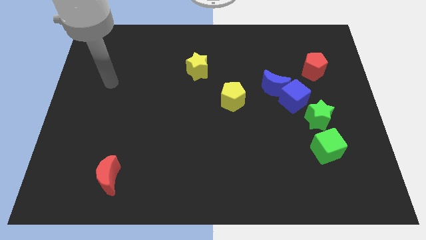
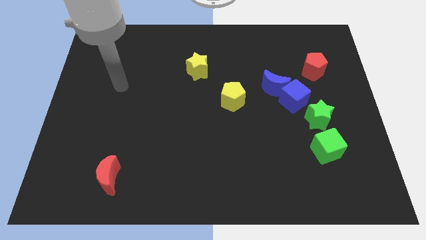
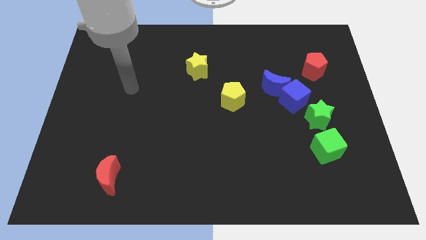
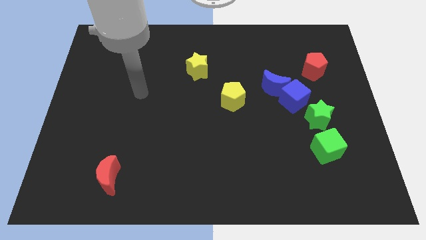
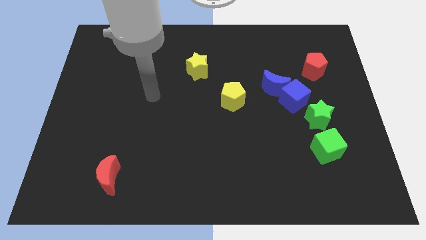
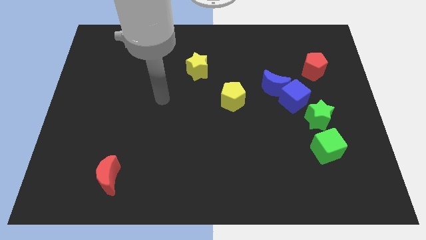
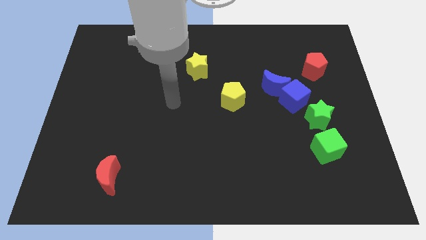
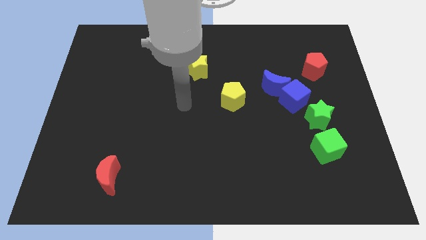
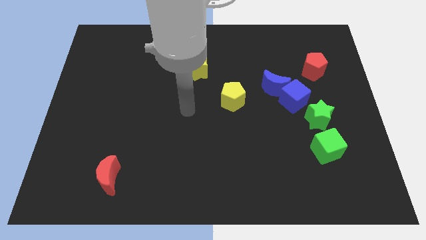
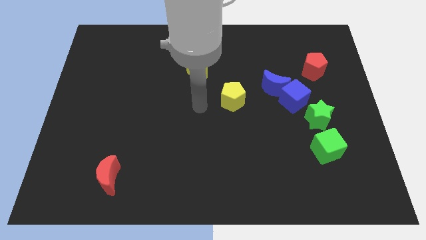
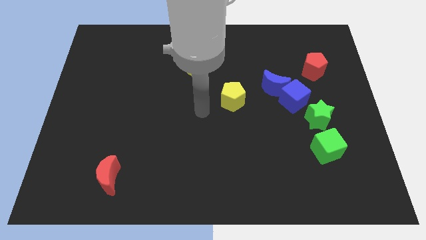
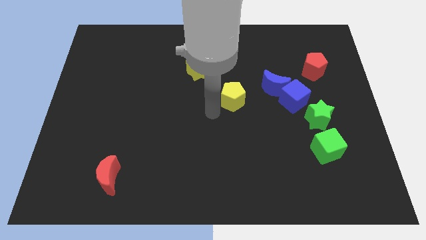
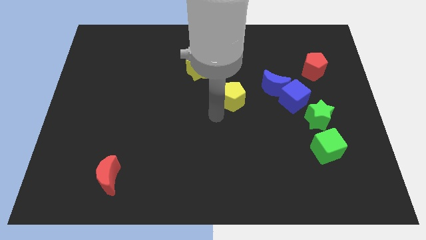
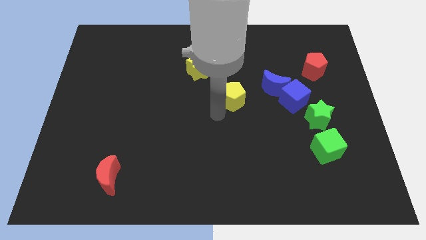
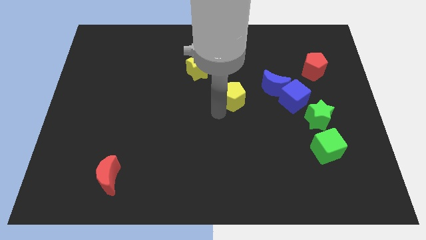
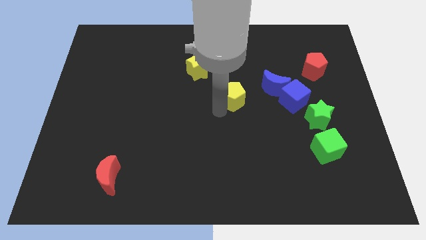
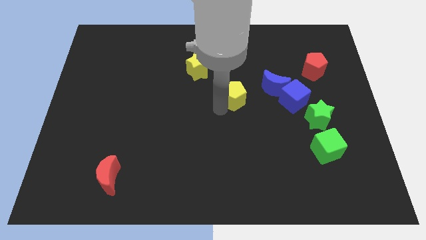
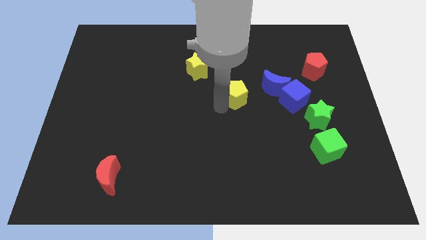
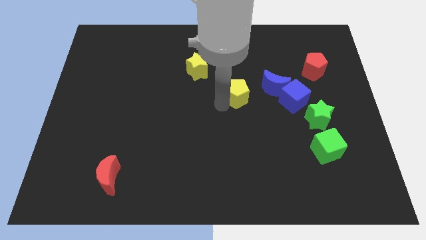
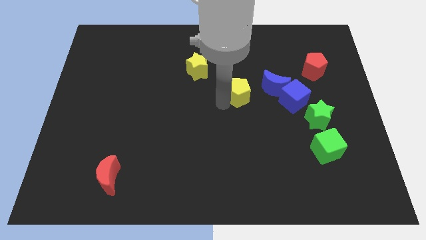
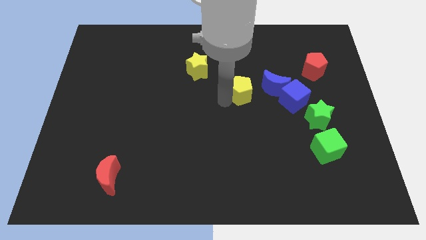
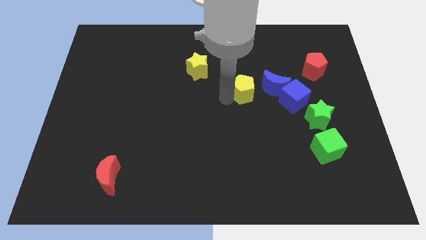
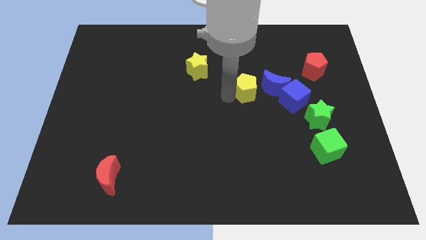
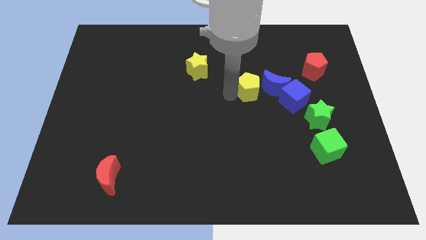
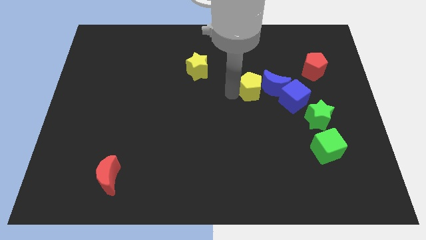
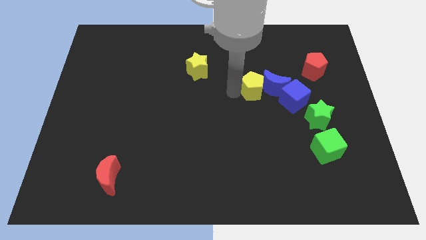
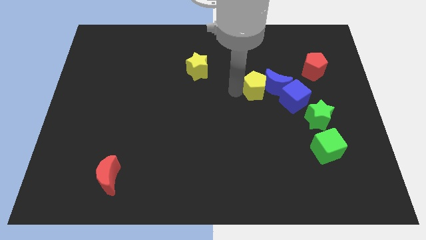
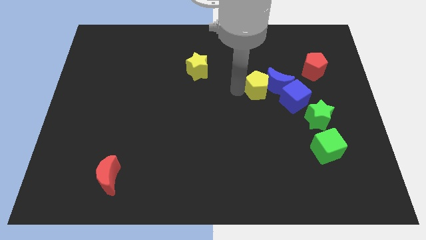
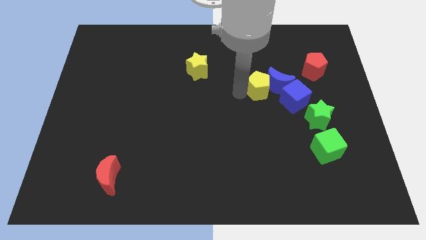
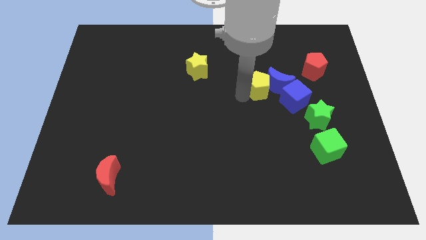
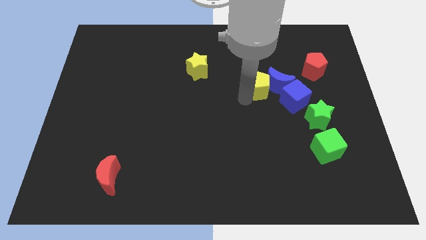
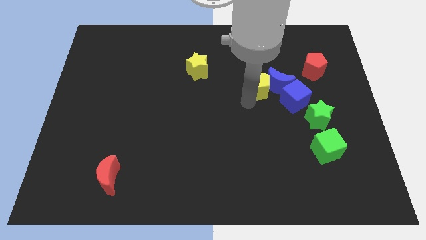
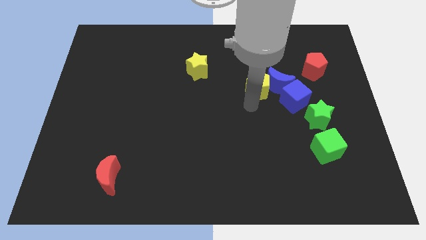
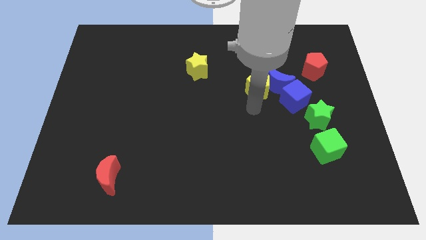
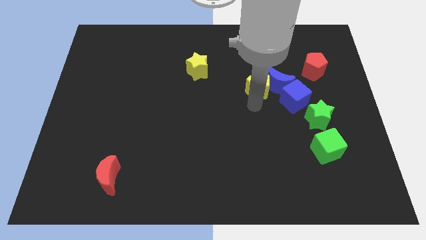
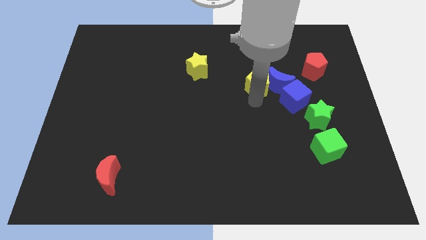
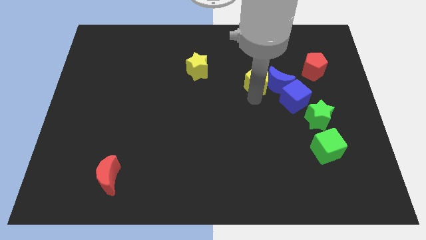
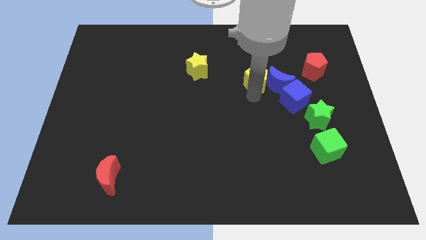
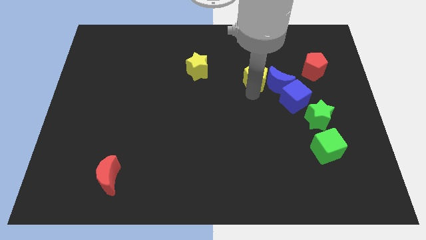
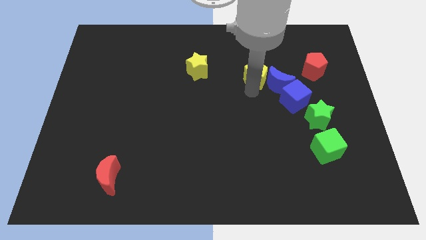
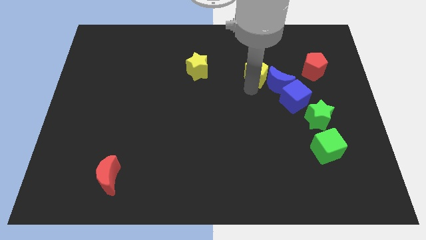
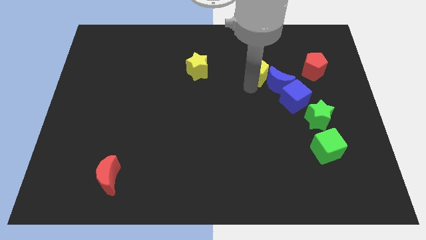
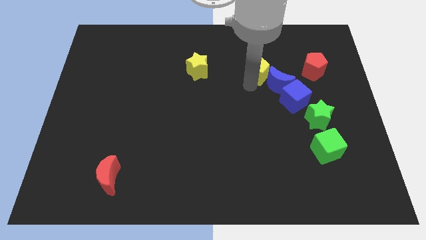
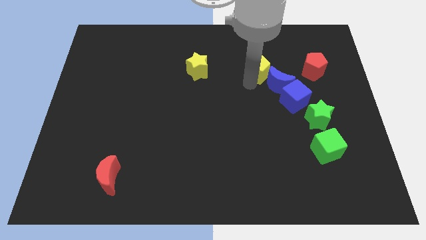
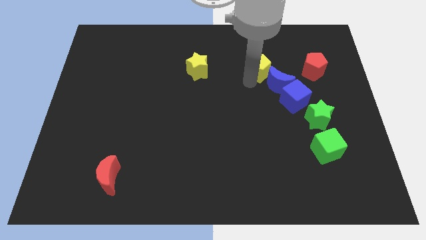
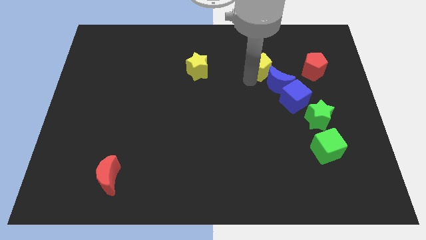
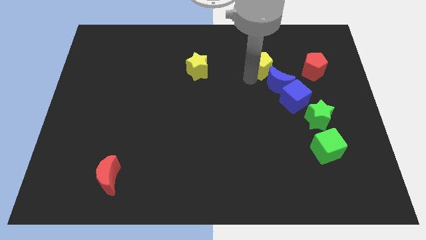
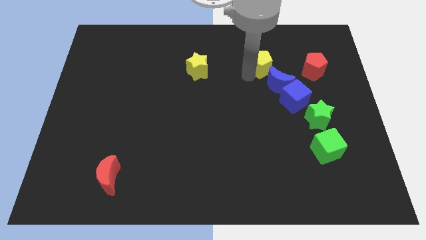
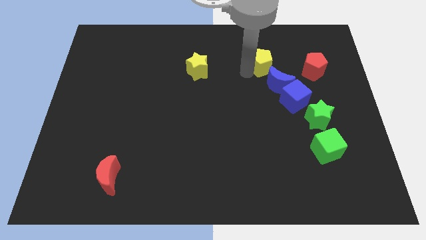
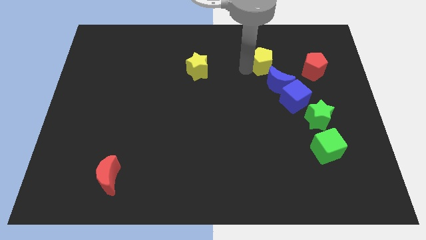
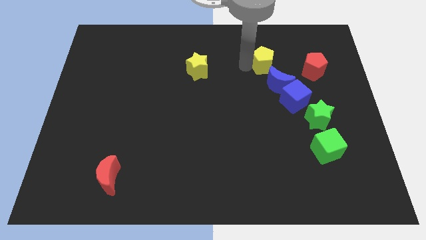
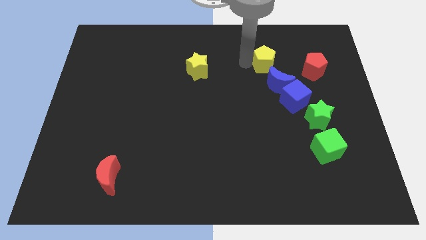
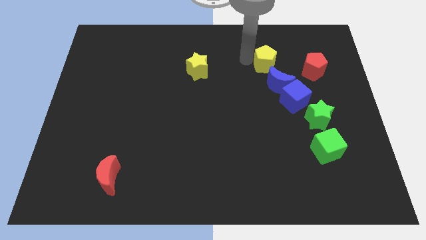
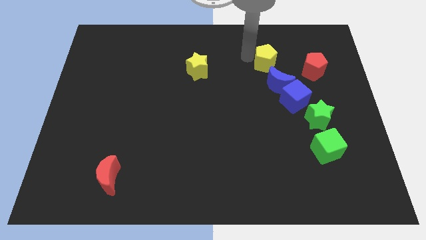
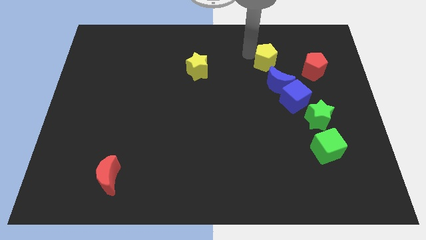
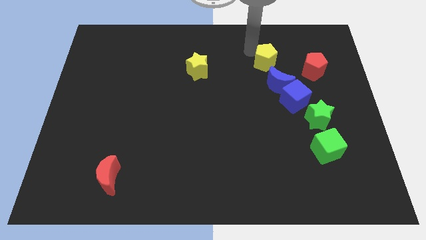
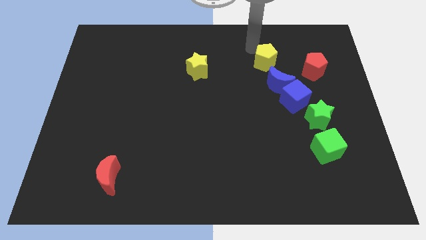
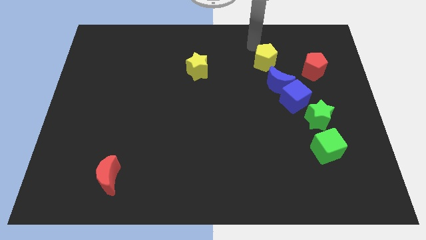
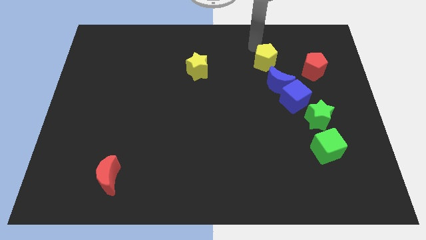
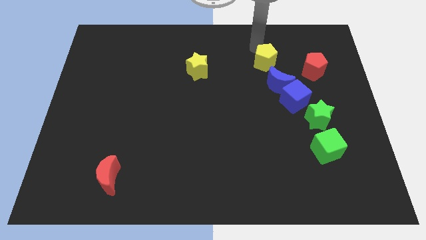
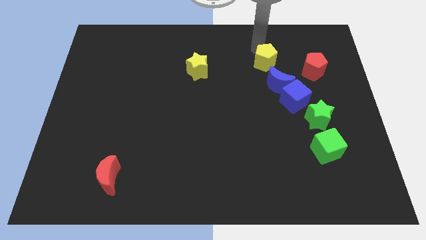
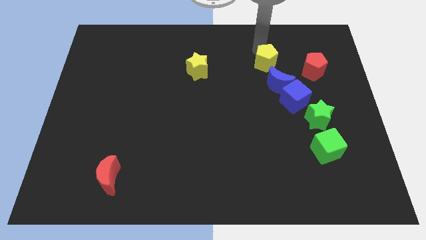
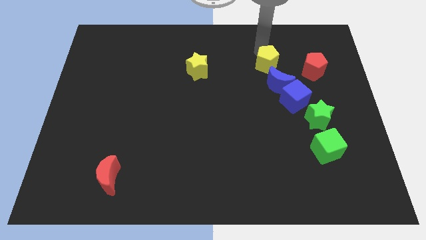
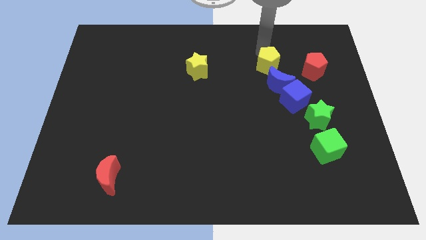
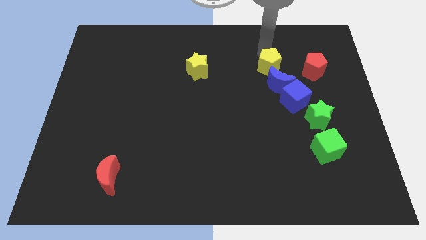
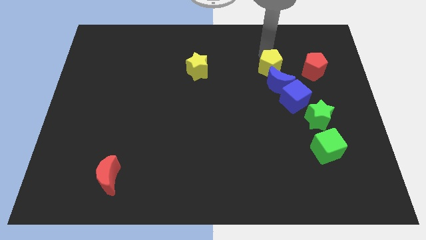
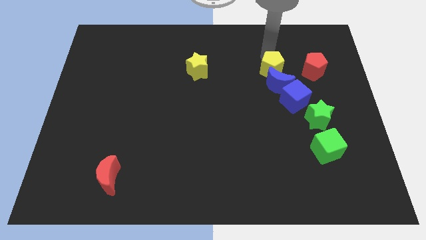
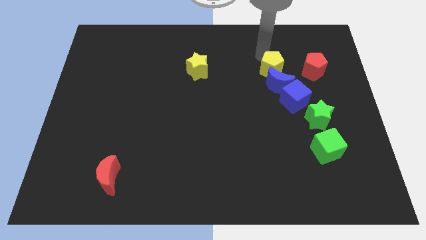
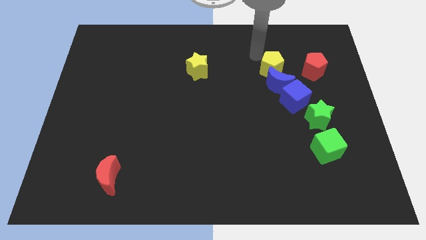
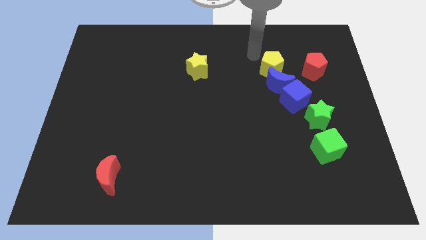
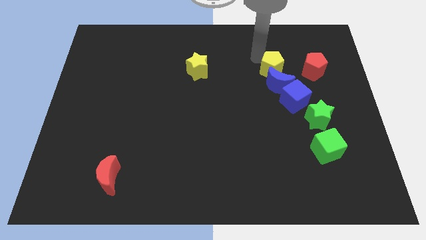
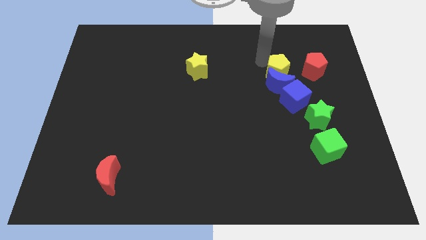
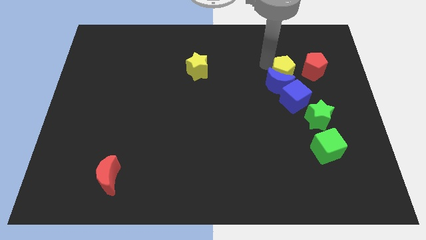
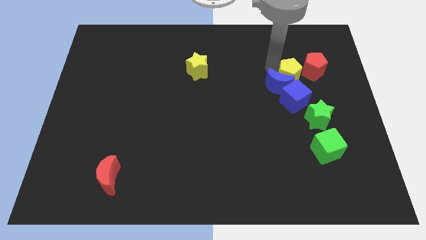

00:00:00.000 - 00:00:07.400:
move the yellow pentagon to the right side of the blue moon
